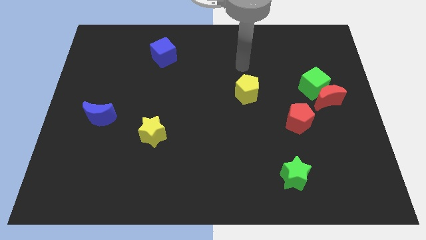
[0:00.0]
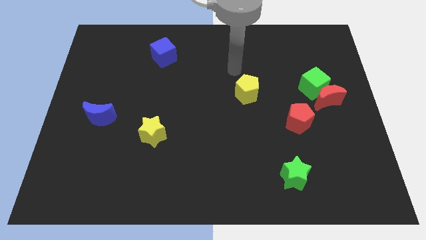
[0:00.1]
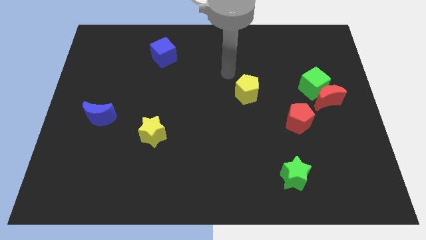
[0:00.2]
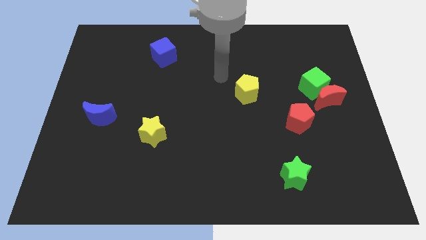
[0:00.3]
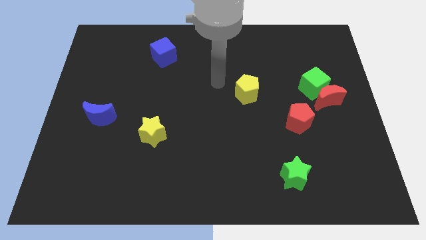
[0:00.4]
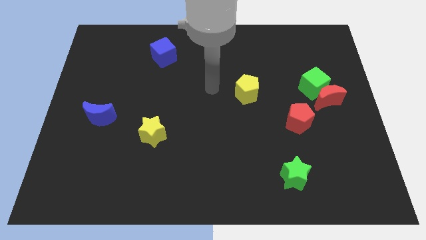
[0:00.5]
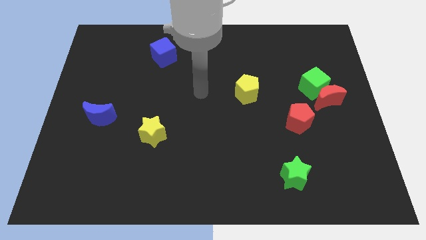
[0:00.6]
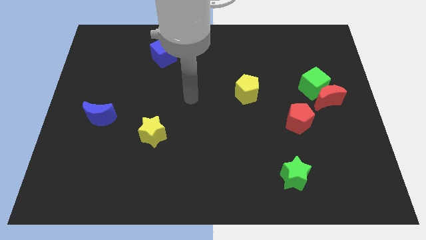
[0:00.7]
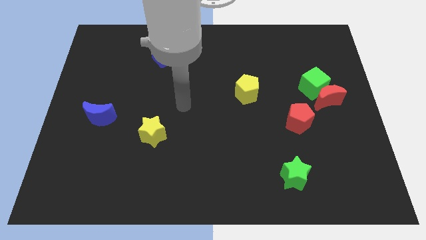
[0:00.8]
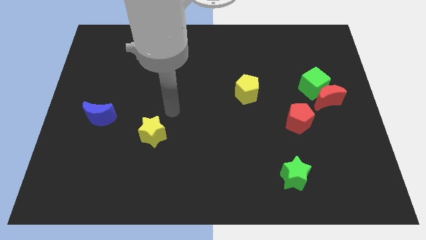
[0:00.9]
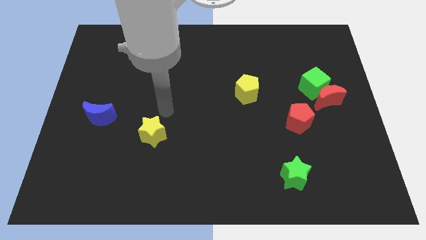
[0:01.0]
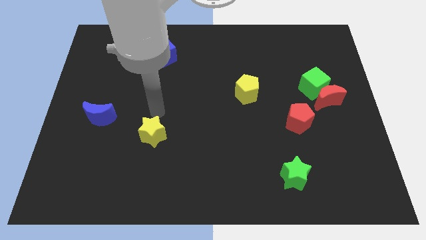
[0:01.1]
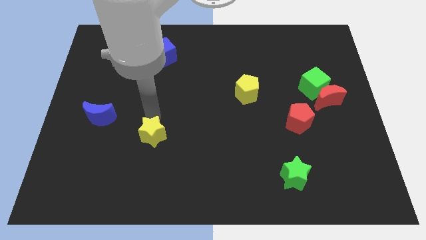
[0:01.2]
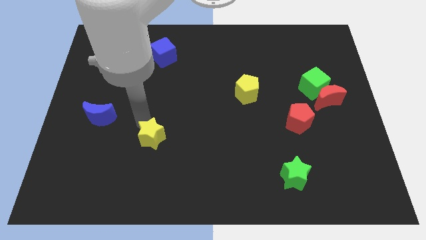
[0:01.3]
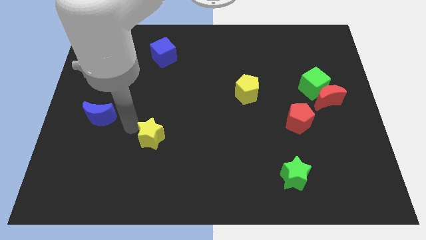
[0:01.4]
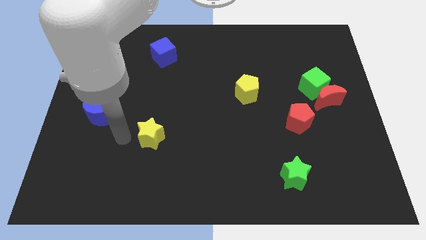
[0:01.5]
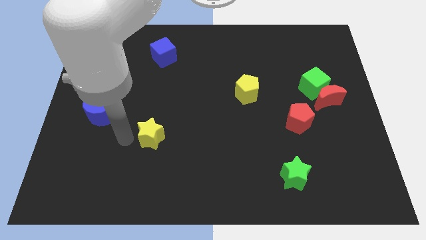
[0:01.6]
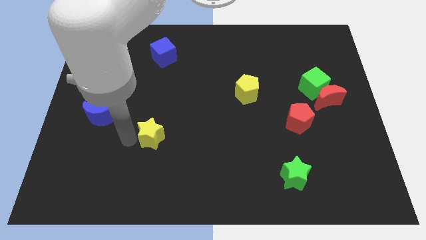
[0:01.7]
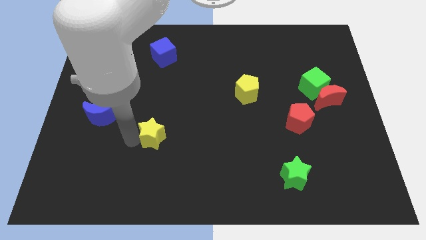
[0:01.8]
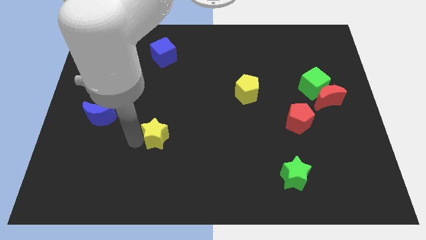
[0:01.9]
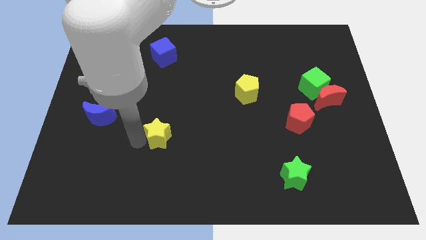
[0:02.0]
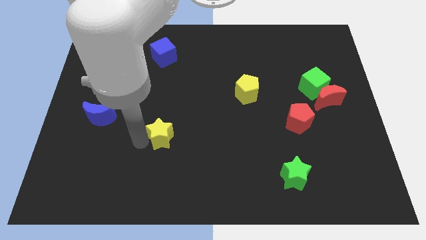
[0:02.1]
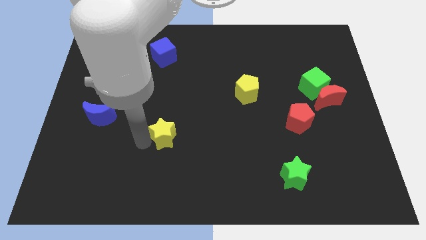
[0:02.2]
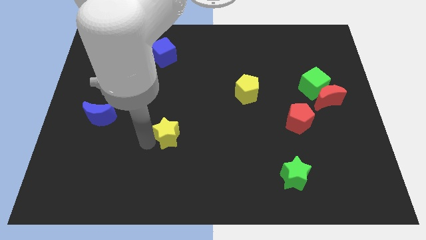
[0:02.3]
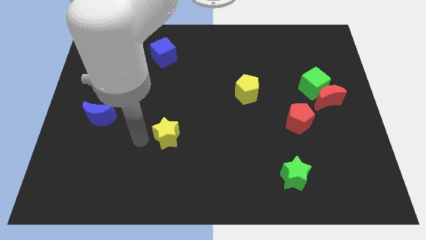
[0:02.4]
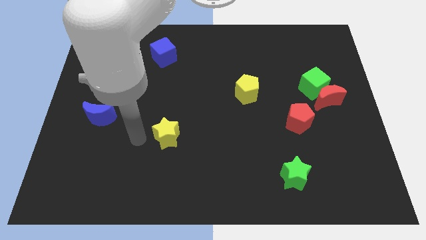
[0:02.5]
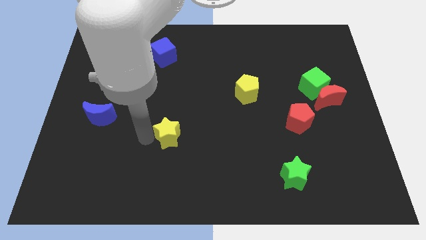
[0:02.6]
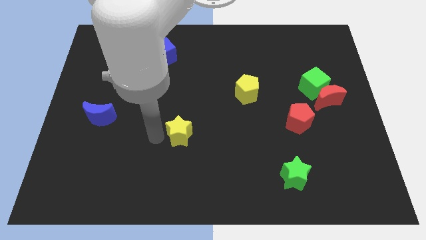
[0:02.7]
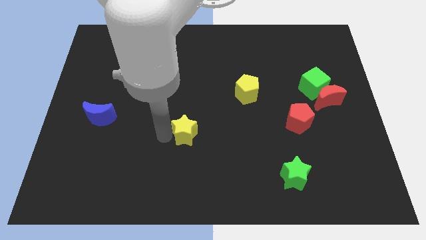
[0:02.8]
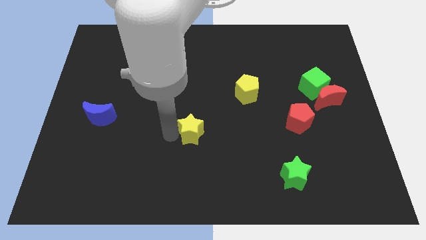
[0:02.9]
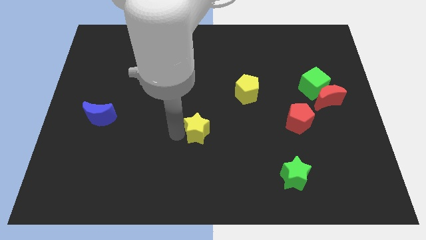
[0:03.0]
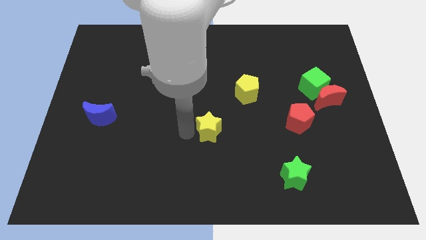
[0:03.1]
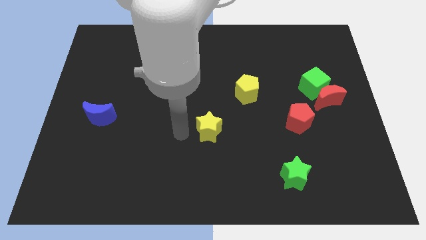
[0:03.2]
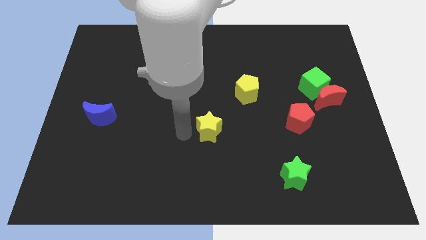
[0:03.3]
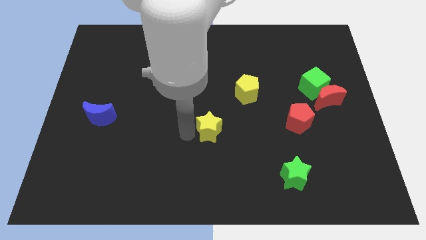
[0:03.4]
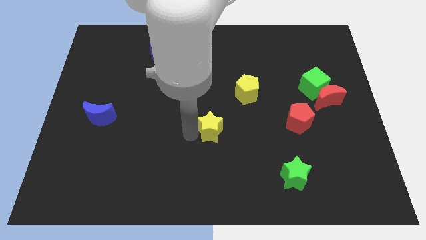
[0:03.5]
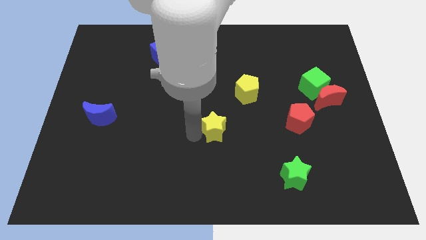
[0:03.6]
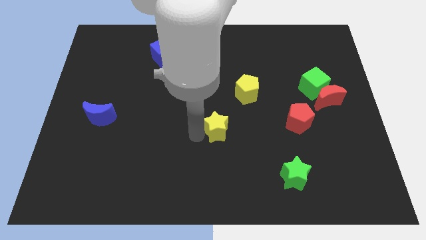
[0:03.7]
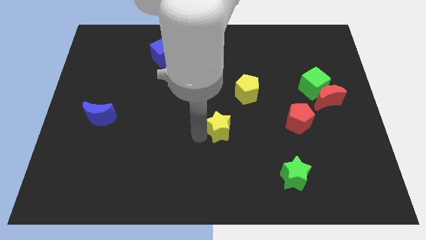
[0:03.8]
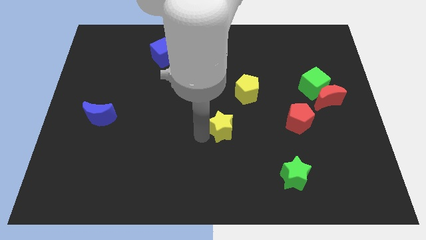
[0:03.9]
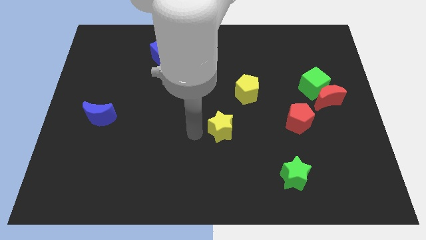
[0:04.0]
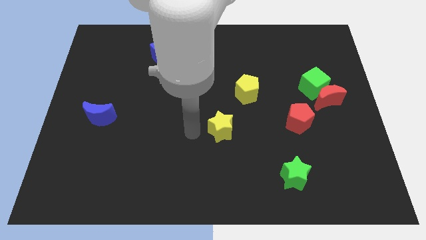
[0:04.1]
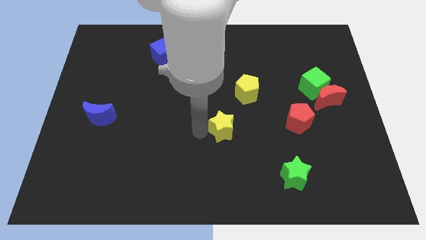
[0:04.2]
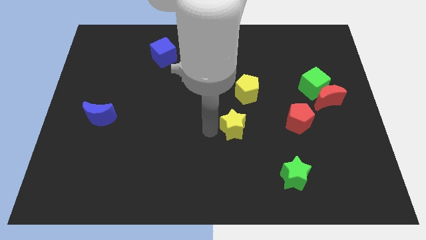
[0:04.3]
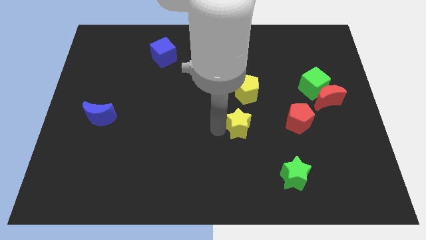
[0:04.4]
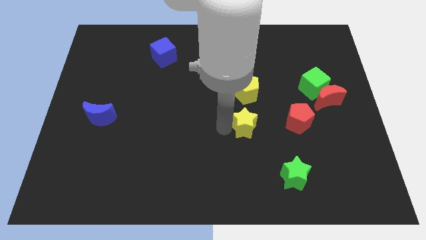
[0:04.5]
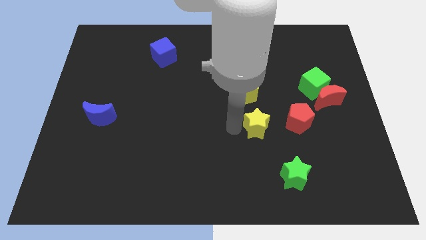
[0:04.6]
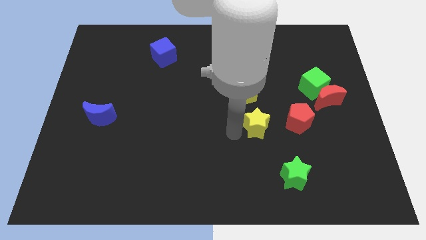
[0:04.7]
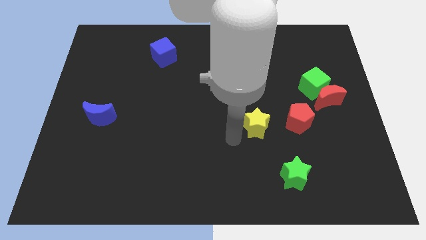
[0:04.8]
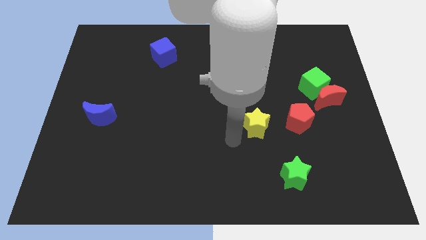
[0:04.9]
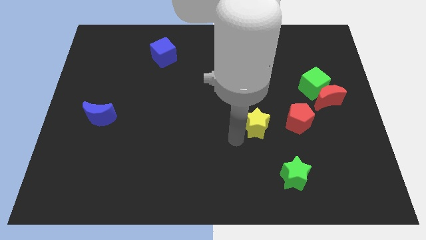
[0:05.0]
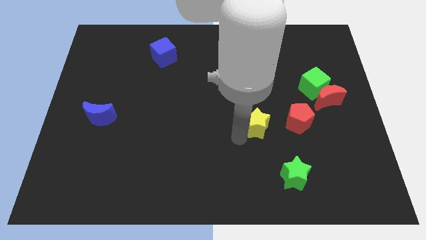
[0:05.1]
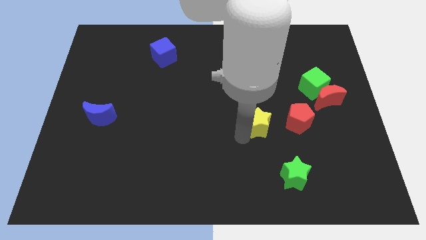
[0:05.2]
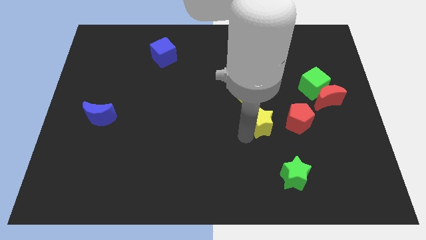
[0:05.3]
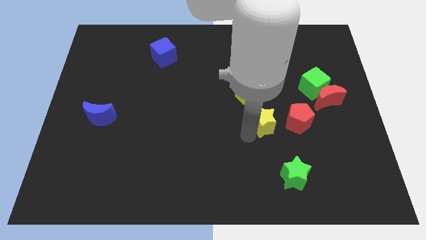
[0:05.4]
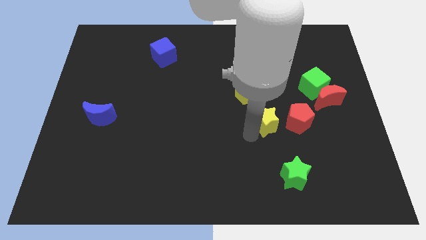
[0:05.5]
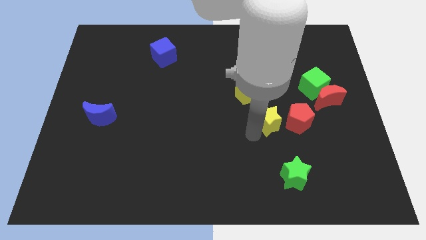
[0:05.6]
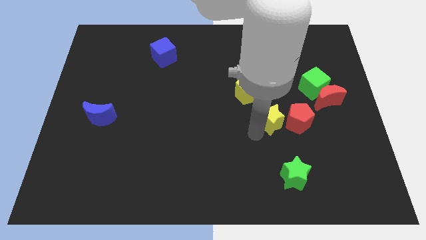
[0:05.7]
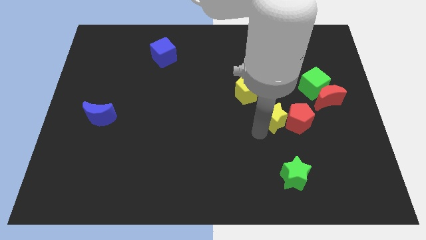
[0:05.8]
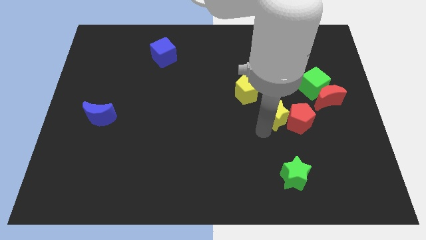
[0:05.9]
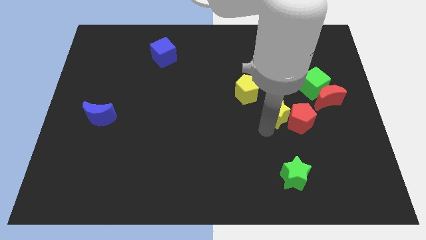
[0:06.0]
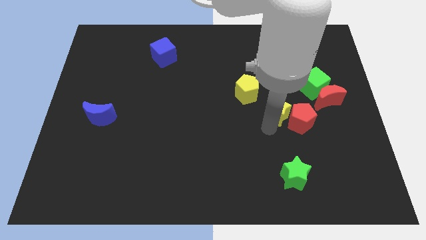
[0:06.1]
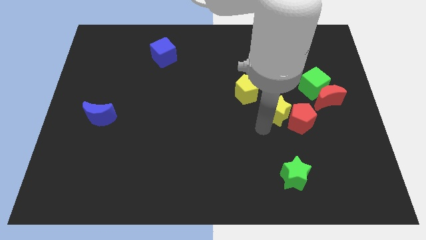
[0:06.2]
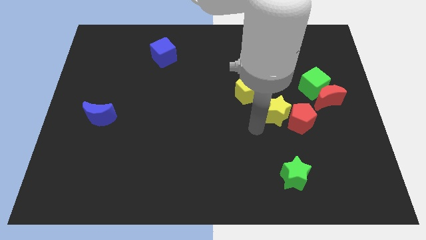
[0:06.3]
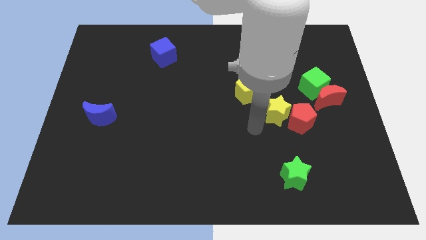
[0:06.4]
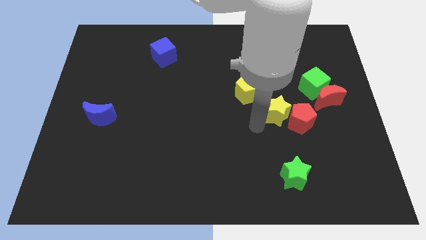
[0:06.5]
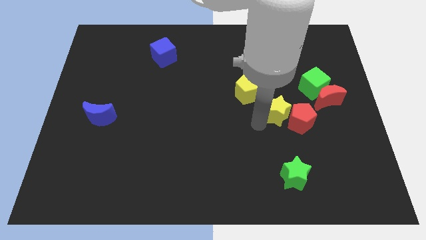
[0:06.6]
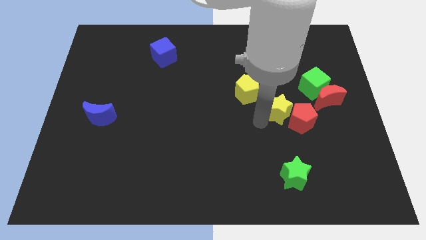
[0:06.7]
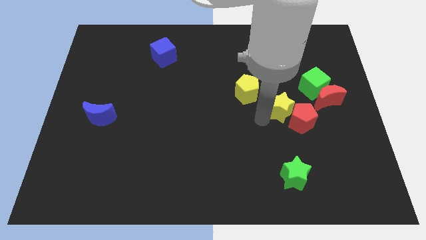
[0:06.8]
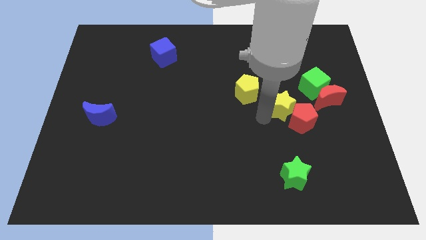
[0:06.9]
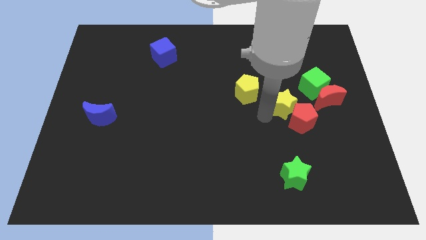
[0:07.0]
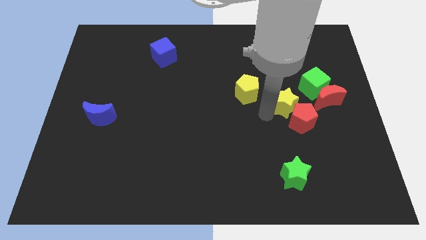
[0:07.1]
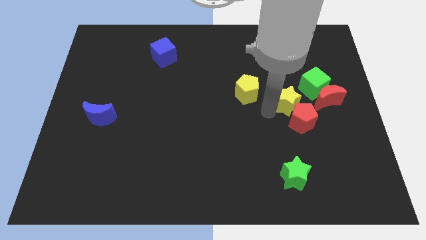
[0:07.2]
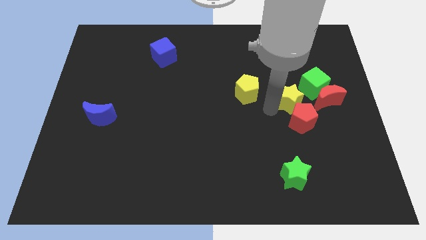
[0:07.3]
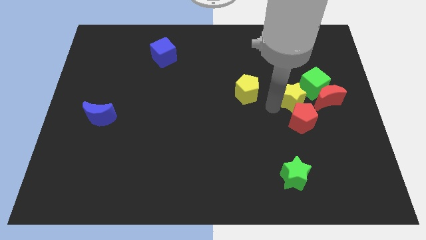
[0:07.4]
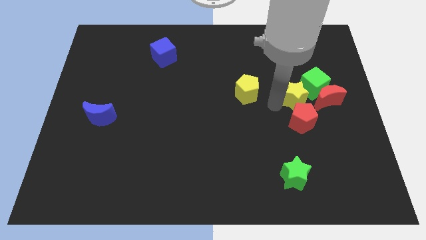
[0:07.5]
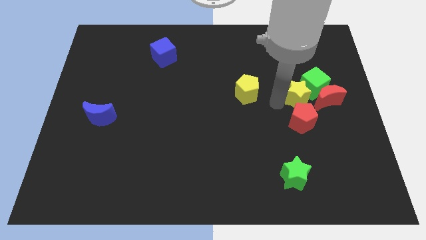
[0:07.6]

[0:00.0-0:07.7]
slide the yellow star close to the green cube
